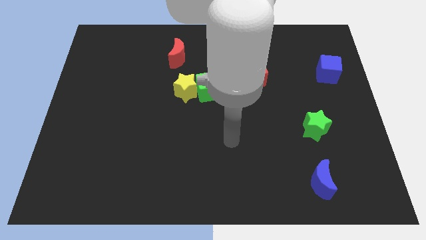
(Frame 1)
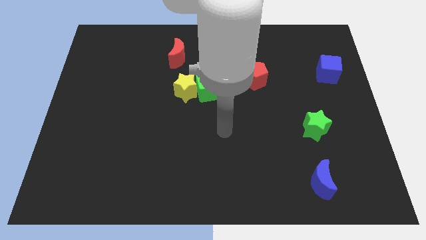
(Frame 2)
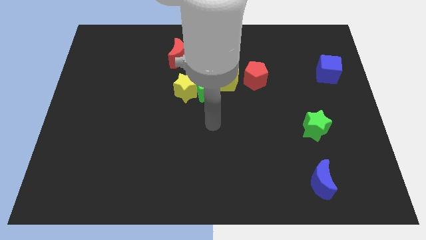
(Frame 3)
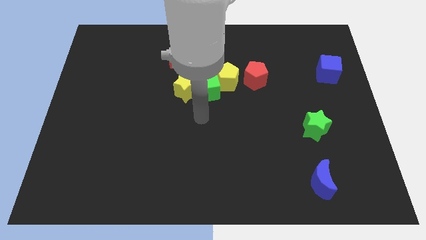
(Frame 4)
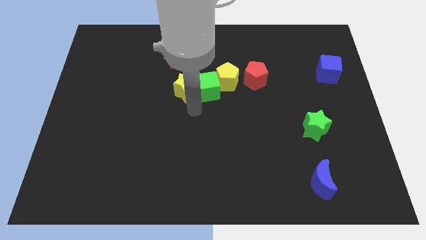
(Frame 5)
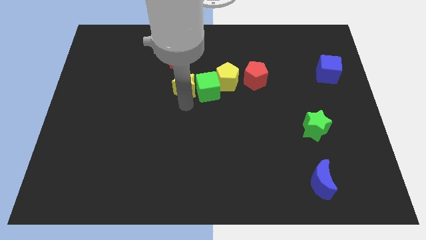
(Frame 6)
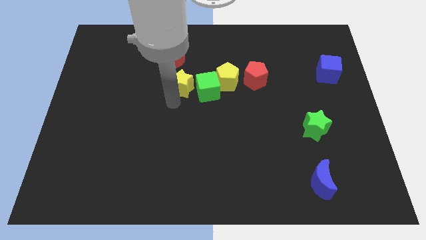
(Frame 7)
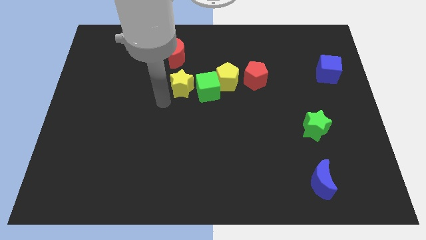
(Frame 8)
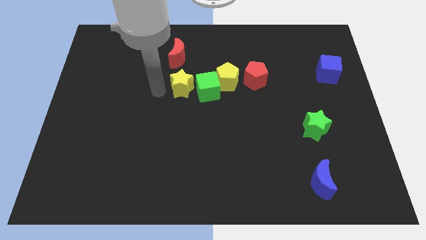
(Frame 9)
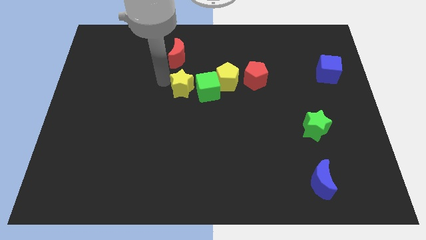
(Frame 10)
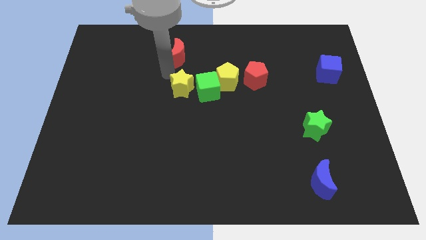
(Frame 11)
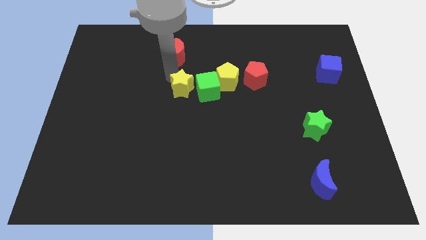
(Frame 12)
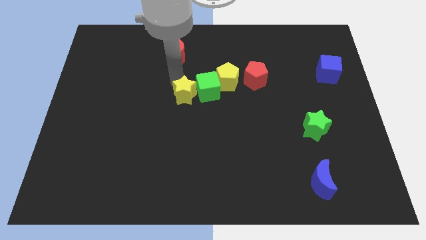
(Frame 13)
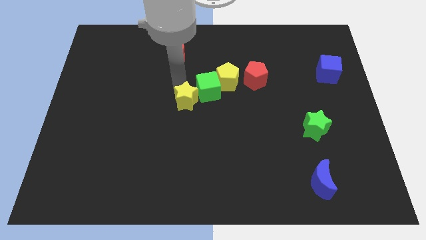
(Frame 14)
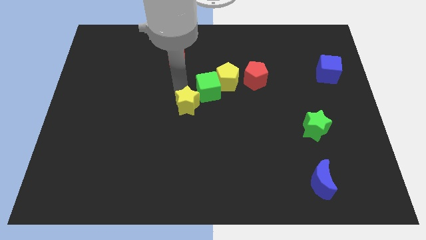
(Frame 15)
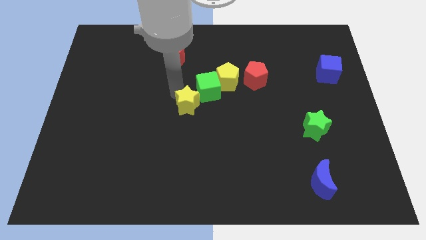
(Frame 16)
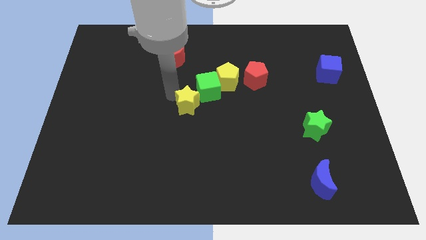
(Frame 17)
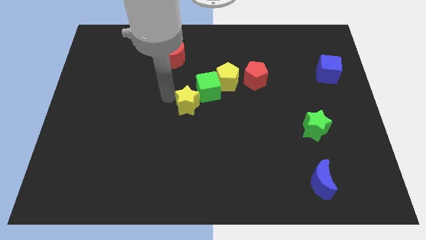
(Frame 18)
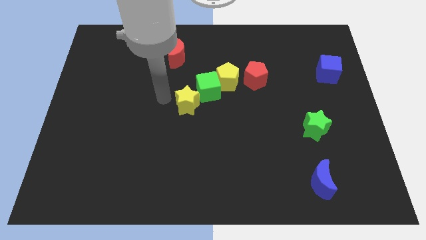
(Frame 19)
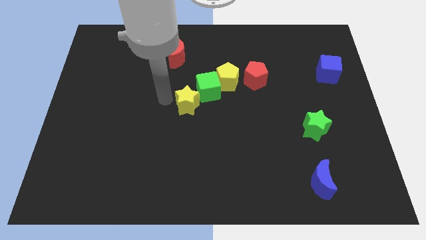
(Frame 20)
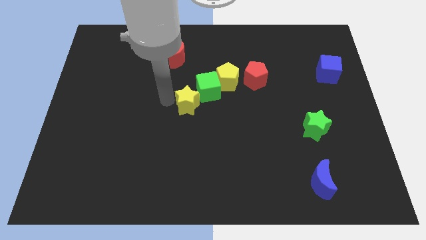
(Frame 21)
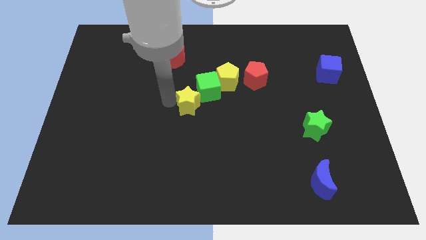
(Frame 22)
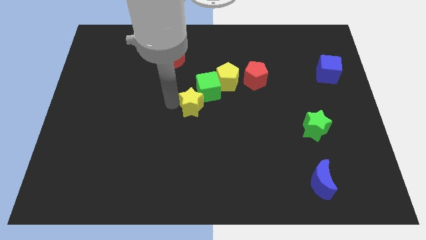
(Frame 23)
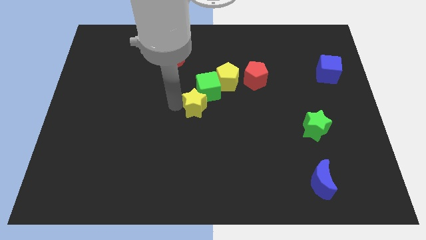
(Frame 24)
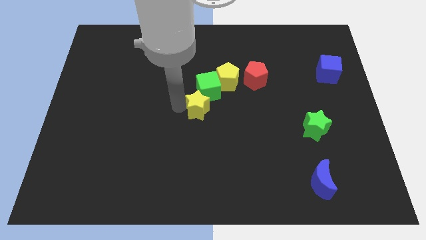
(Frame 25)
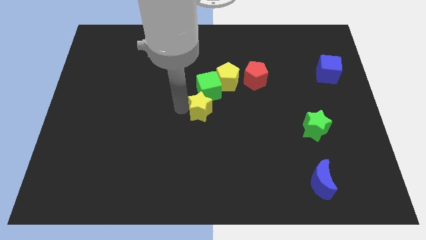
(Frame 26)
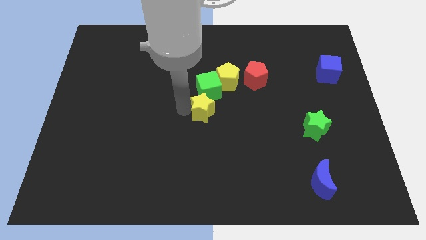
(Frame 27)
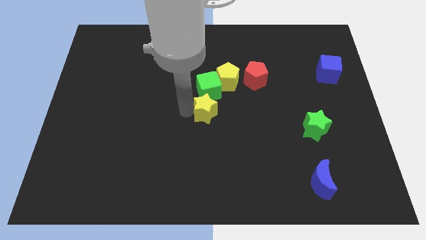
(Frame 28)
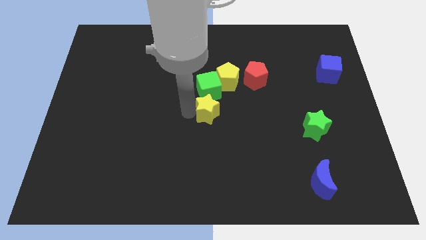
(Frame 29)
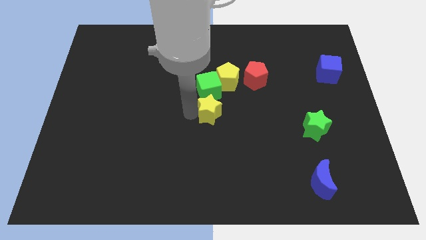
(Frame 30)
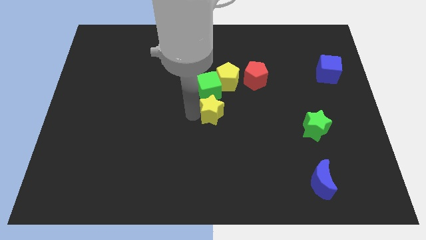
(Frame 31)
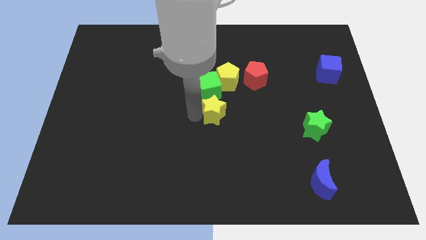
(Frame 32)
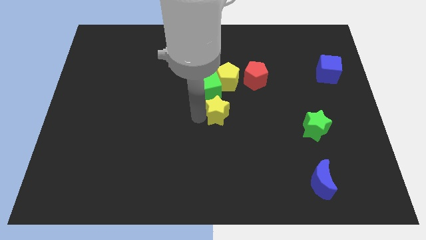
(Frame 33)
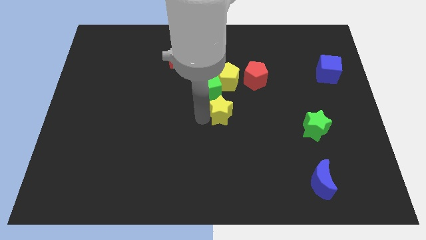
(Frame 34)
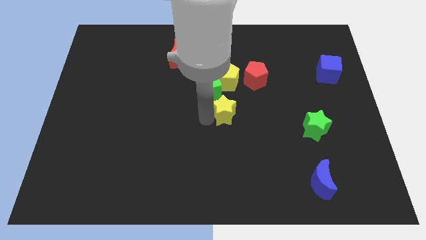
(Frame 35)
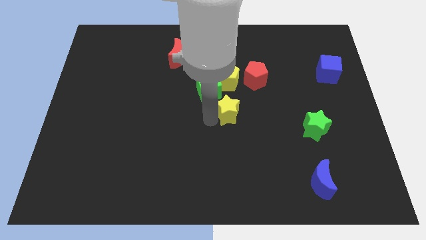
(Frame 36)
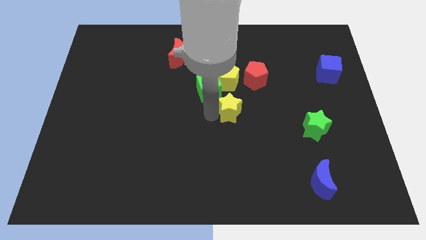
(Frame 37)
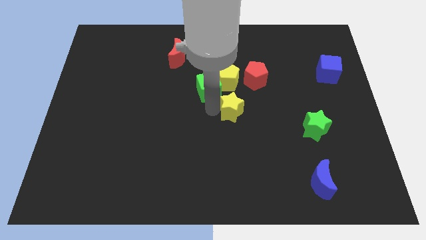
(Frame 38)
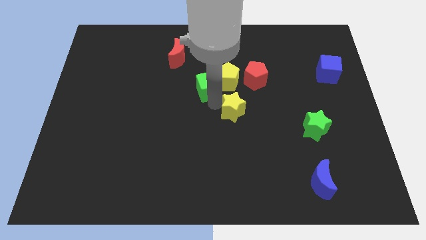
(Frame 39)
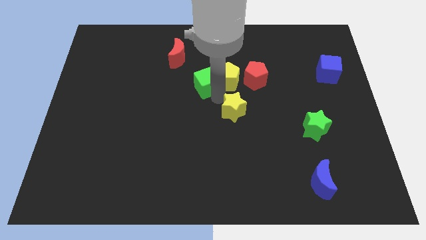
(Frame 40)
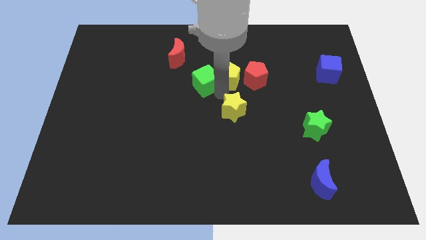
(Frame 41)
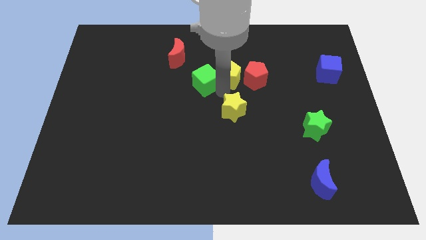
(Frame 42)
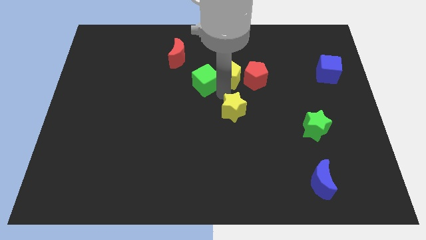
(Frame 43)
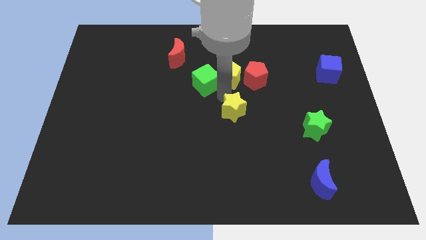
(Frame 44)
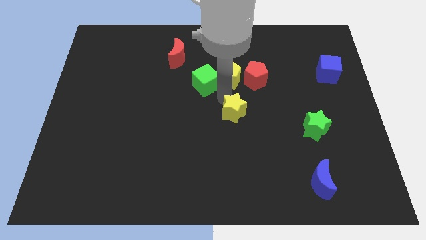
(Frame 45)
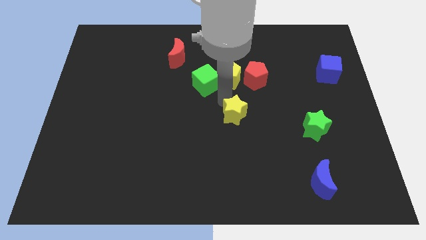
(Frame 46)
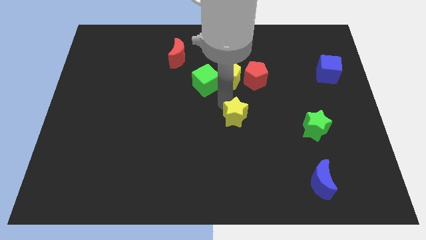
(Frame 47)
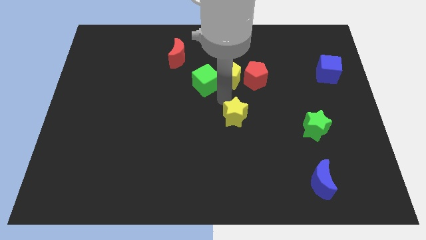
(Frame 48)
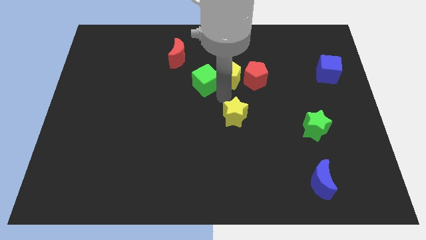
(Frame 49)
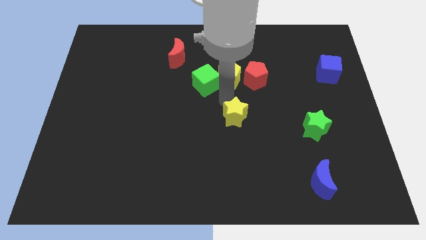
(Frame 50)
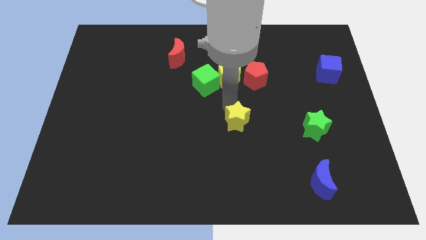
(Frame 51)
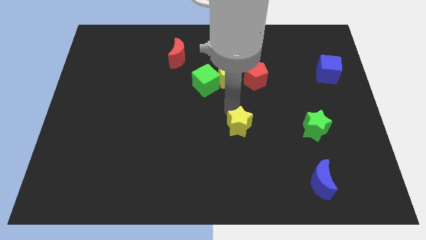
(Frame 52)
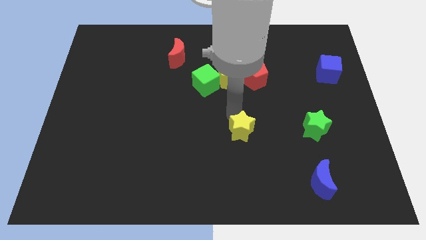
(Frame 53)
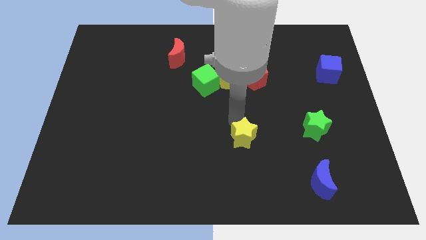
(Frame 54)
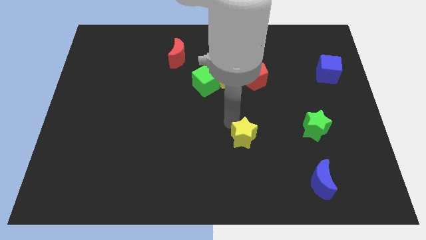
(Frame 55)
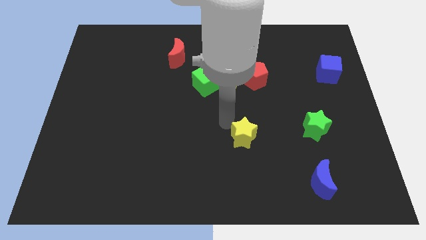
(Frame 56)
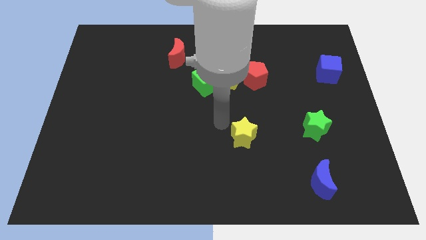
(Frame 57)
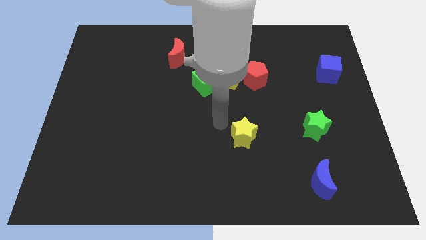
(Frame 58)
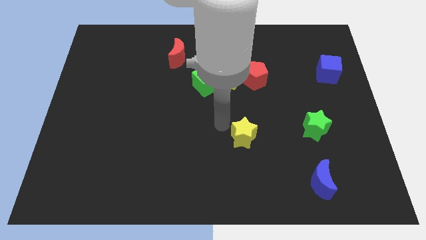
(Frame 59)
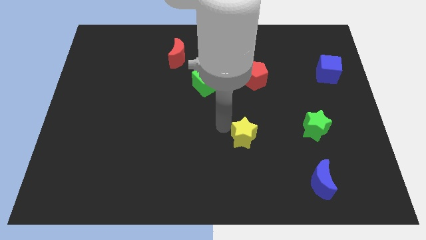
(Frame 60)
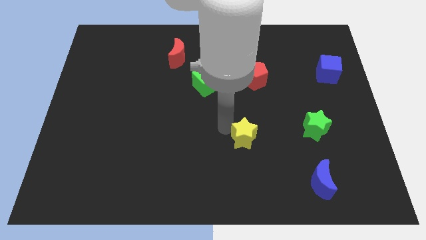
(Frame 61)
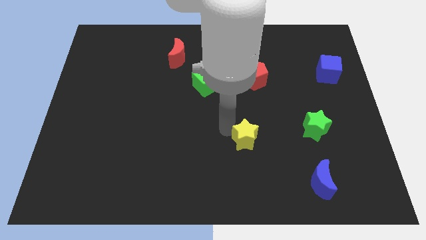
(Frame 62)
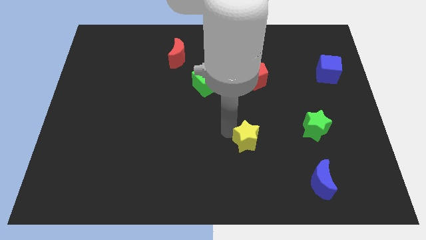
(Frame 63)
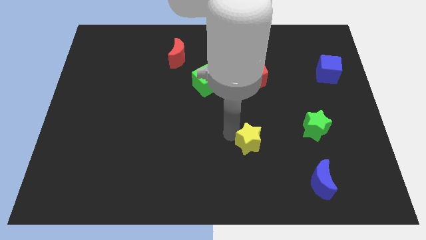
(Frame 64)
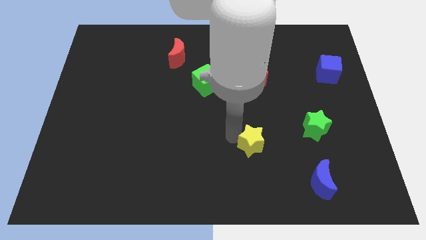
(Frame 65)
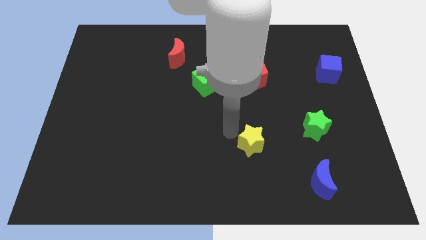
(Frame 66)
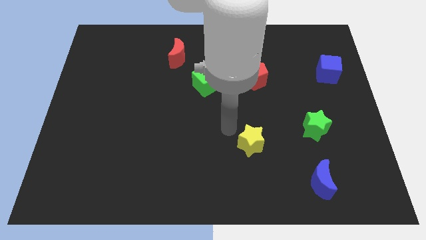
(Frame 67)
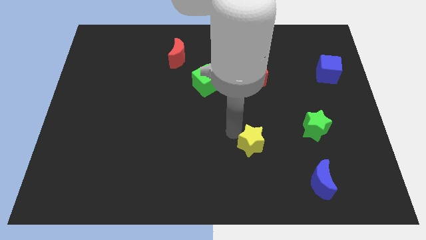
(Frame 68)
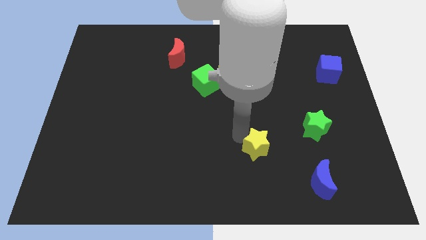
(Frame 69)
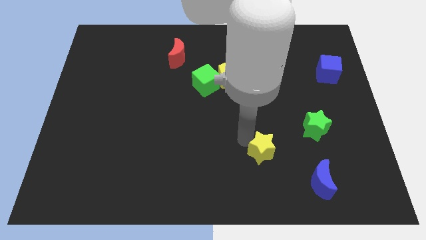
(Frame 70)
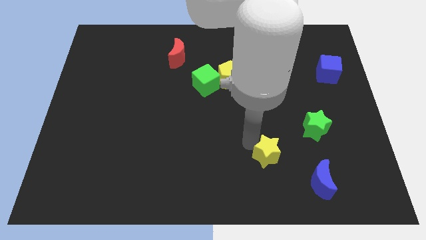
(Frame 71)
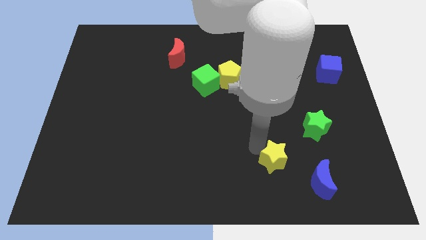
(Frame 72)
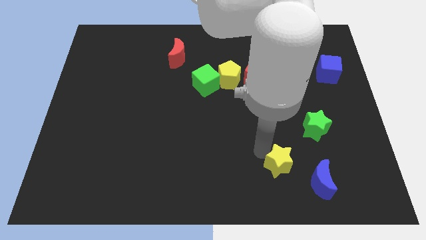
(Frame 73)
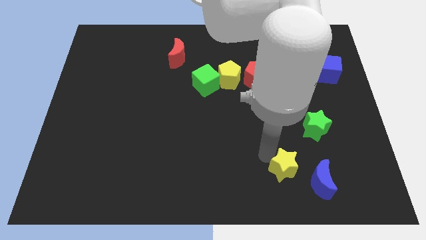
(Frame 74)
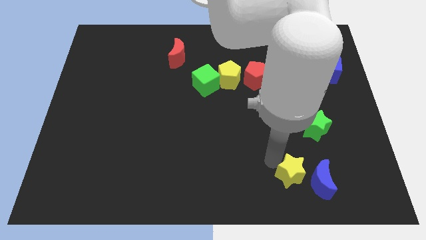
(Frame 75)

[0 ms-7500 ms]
put the yellow star close to the blue moon

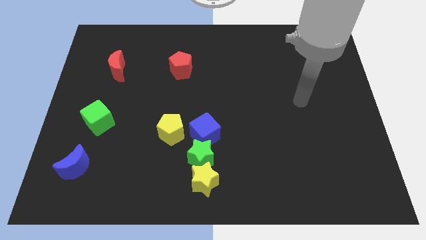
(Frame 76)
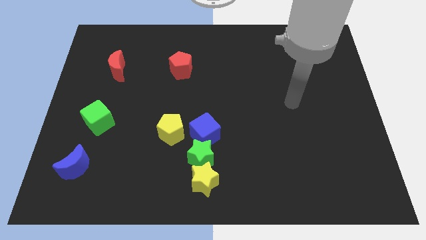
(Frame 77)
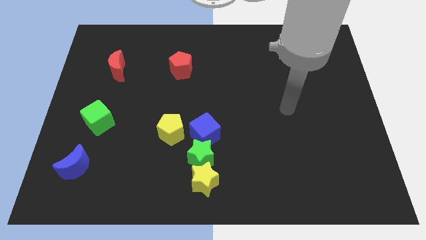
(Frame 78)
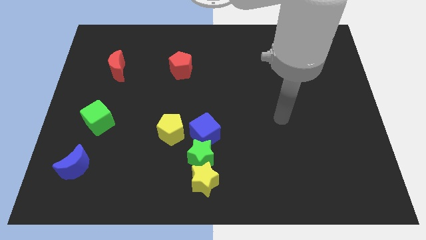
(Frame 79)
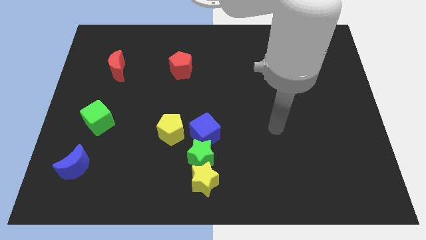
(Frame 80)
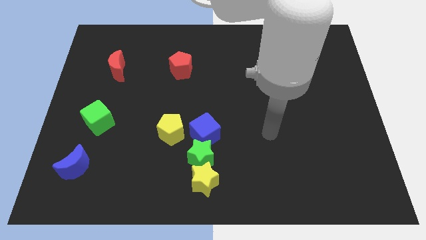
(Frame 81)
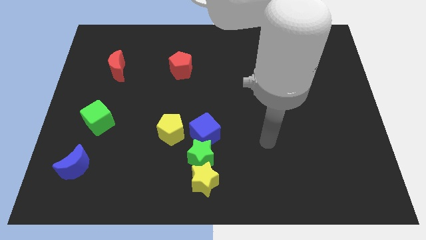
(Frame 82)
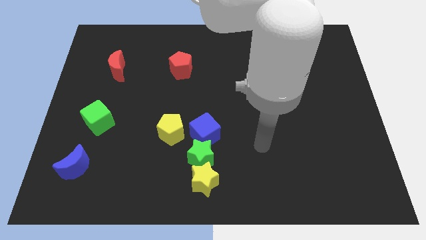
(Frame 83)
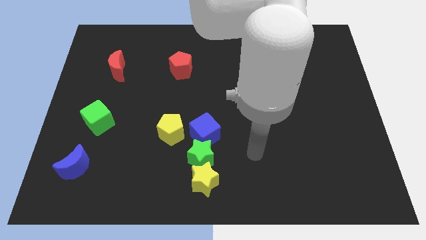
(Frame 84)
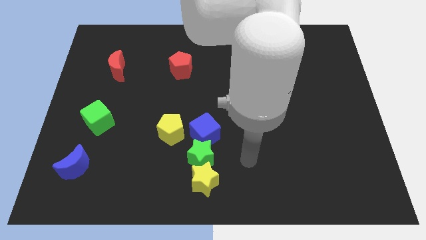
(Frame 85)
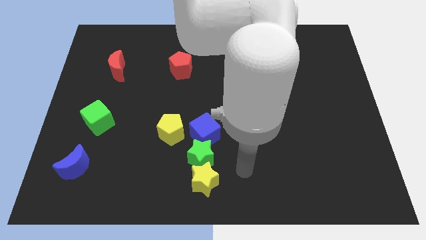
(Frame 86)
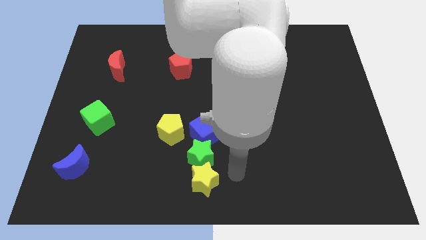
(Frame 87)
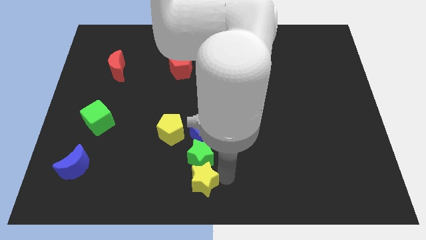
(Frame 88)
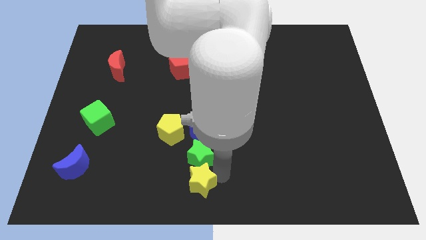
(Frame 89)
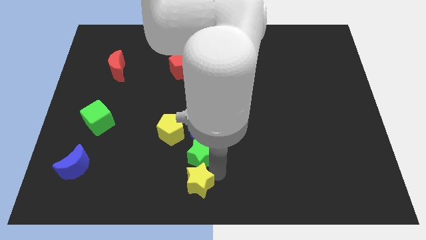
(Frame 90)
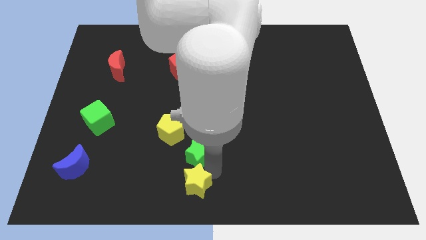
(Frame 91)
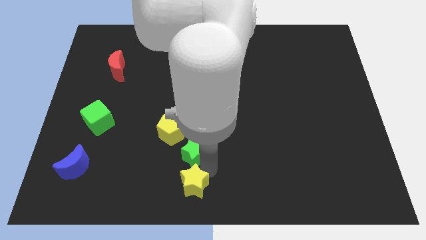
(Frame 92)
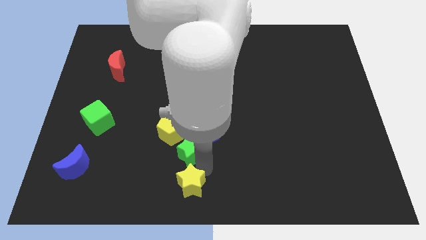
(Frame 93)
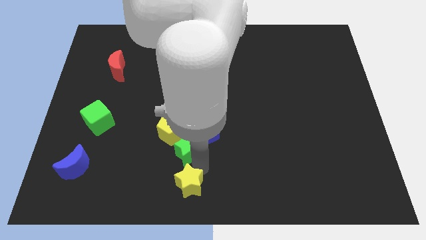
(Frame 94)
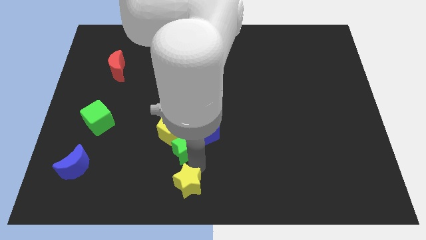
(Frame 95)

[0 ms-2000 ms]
push the green star to the yellow pentagon
